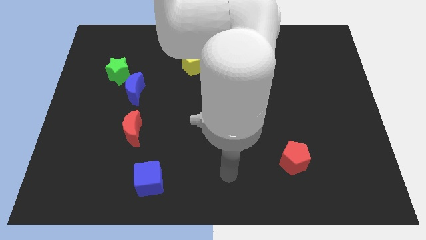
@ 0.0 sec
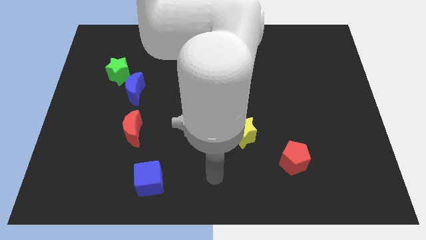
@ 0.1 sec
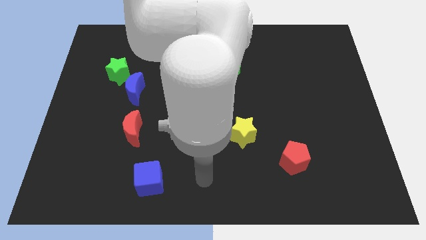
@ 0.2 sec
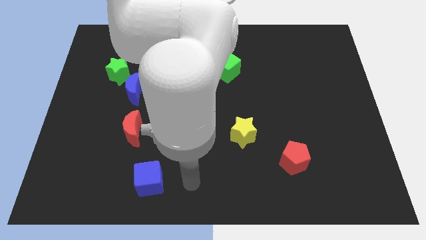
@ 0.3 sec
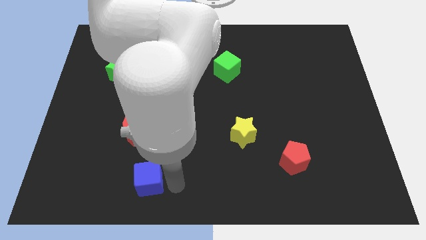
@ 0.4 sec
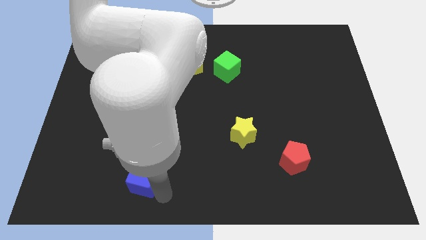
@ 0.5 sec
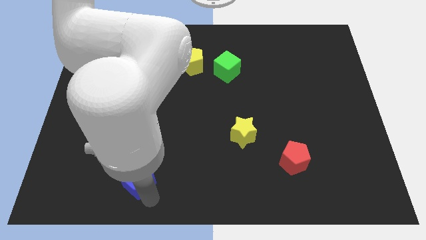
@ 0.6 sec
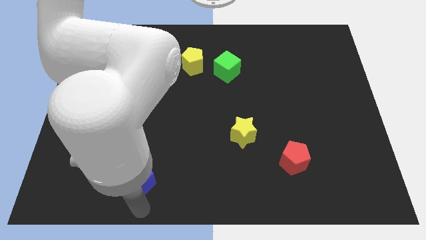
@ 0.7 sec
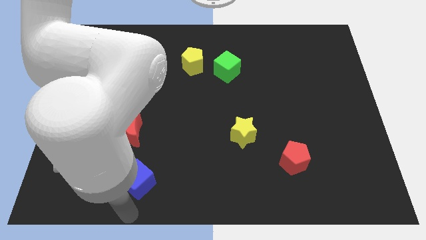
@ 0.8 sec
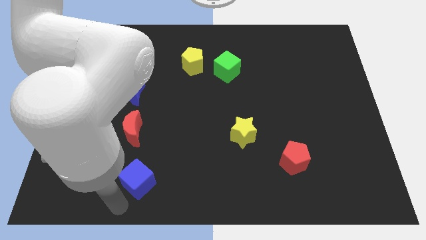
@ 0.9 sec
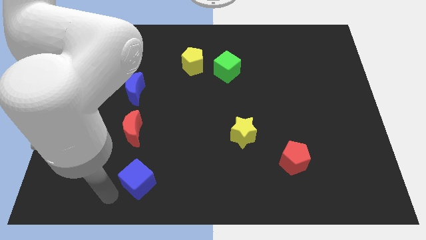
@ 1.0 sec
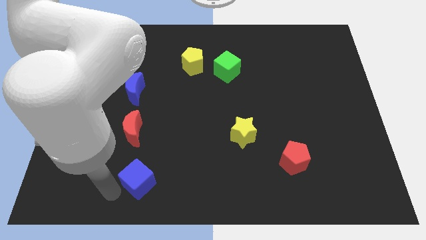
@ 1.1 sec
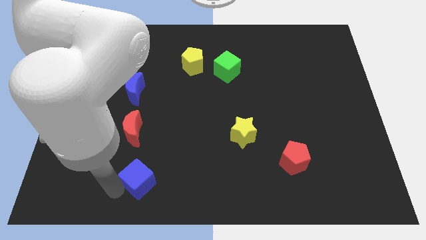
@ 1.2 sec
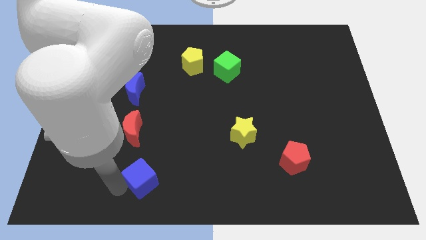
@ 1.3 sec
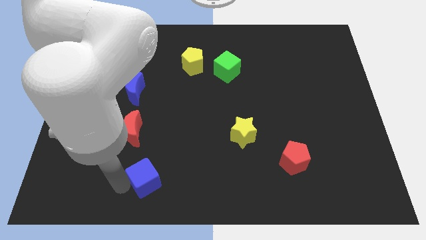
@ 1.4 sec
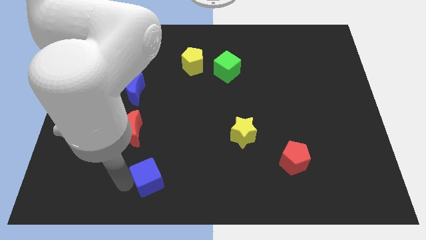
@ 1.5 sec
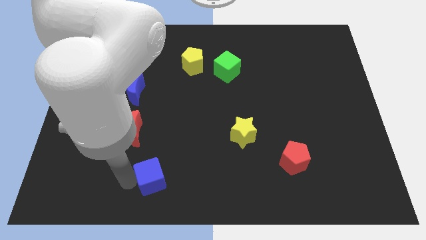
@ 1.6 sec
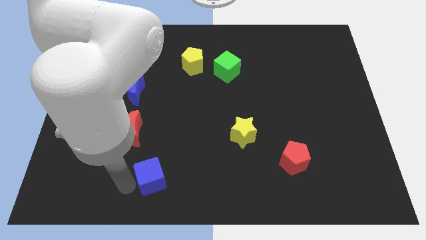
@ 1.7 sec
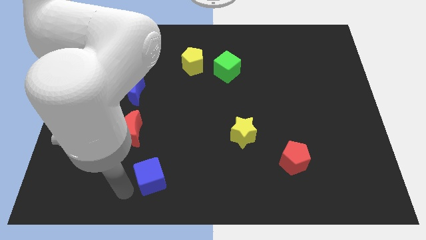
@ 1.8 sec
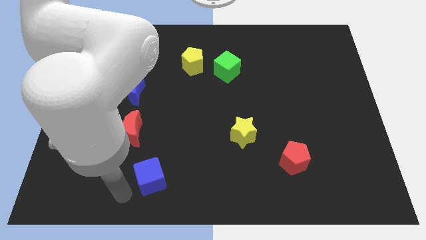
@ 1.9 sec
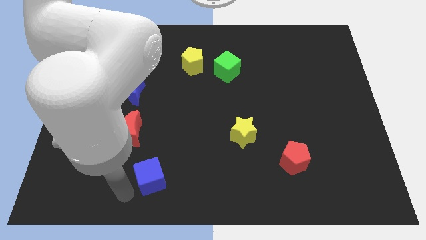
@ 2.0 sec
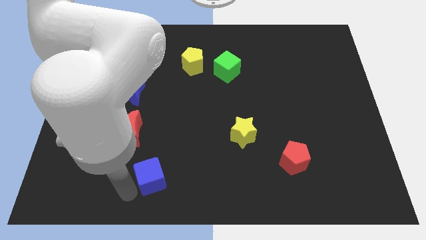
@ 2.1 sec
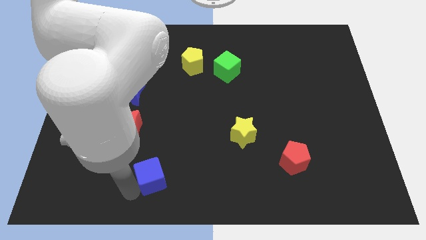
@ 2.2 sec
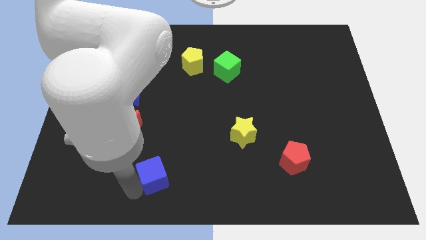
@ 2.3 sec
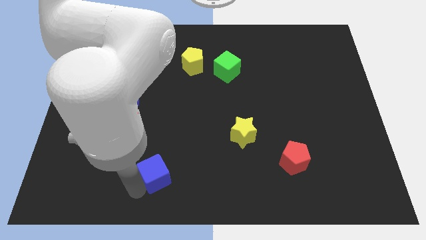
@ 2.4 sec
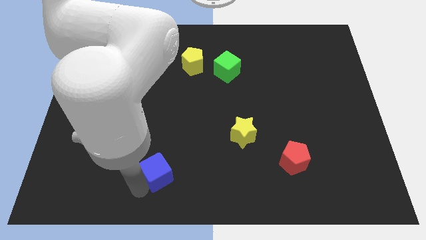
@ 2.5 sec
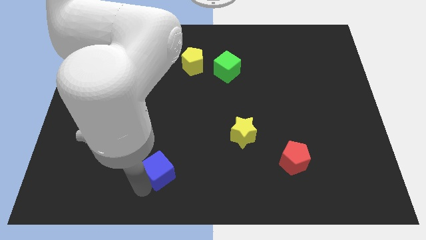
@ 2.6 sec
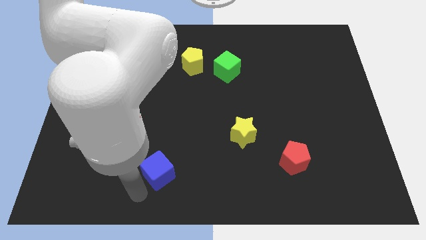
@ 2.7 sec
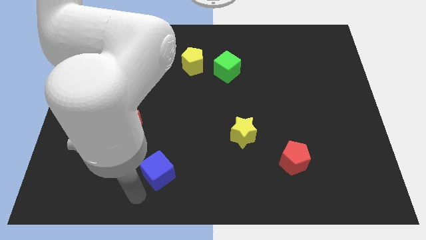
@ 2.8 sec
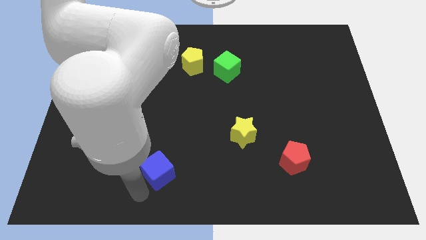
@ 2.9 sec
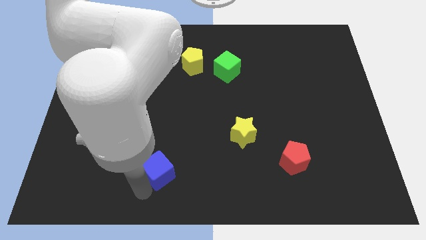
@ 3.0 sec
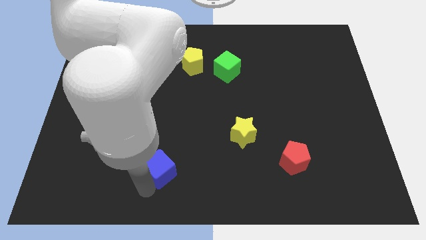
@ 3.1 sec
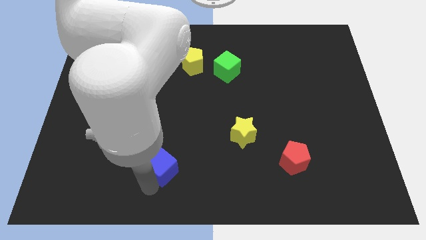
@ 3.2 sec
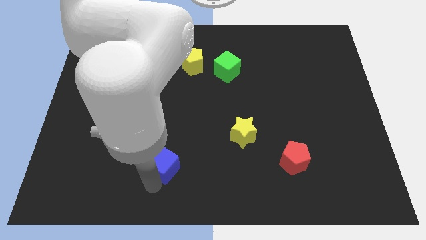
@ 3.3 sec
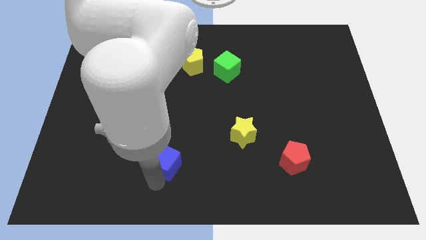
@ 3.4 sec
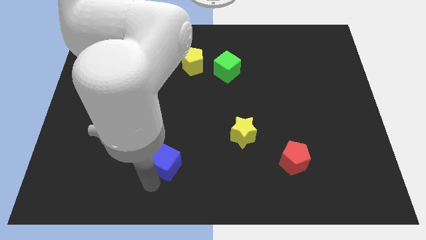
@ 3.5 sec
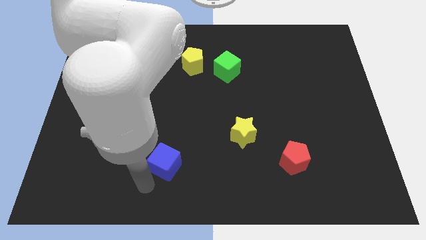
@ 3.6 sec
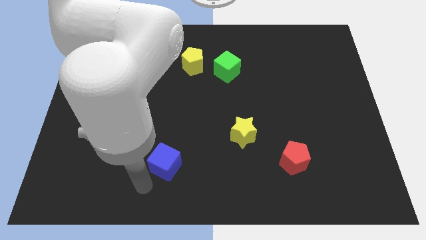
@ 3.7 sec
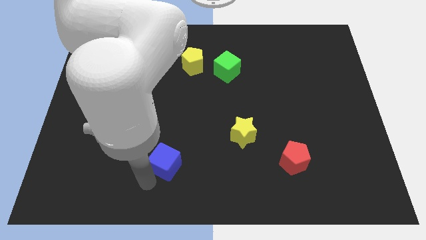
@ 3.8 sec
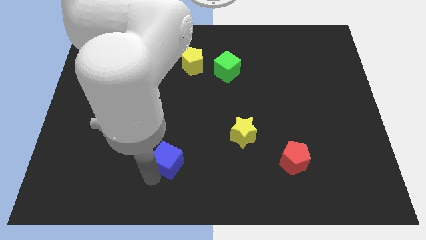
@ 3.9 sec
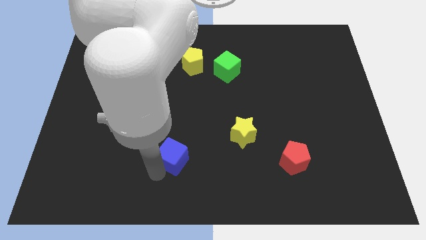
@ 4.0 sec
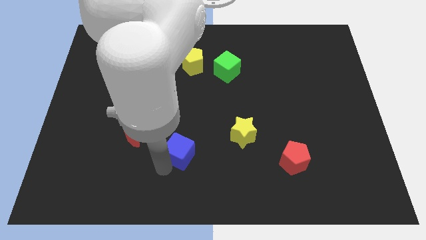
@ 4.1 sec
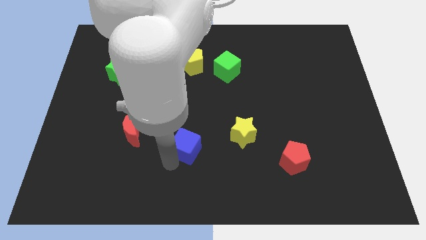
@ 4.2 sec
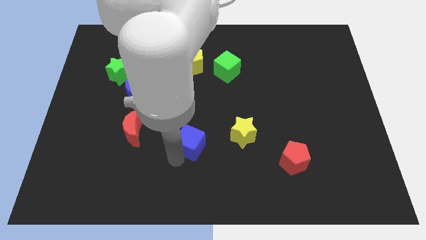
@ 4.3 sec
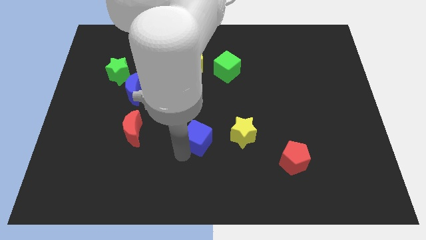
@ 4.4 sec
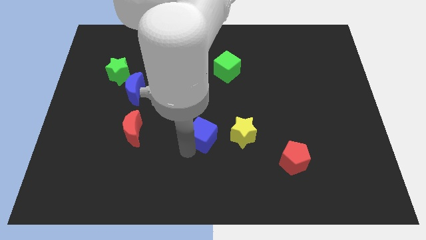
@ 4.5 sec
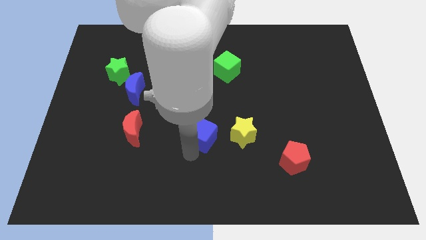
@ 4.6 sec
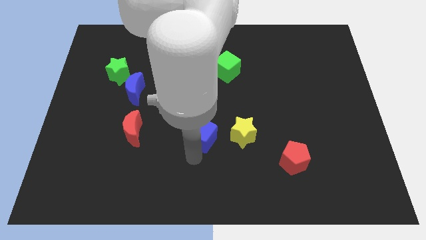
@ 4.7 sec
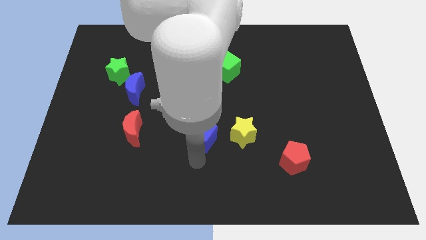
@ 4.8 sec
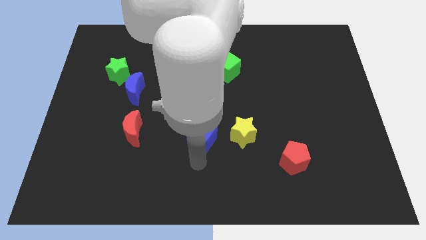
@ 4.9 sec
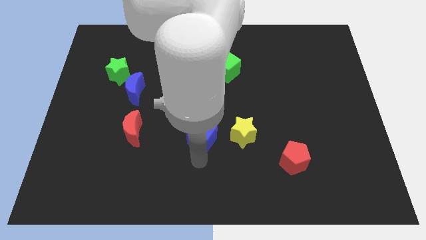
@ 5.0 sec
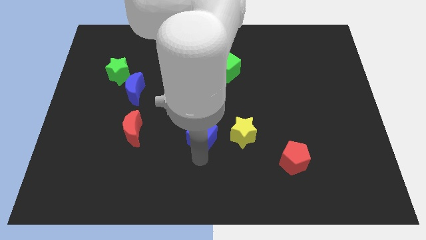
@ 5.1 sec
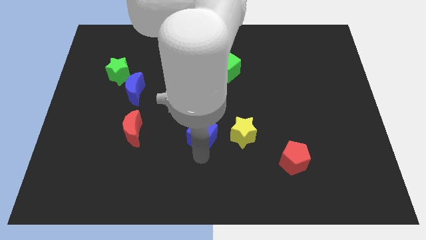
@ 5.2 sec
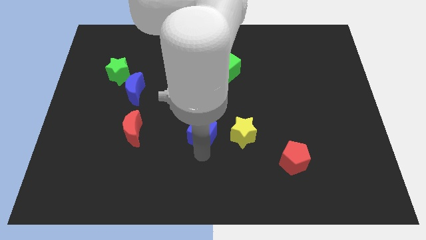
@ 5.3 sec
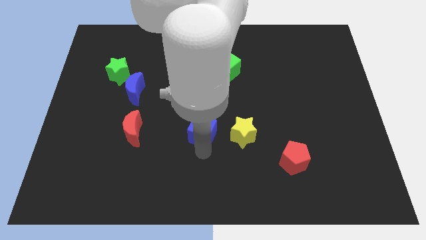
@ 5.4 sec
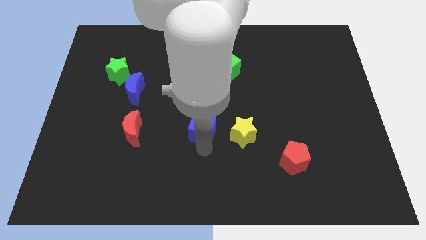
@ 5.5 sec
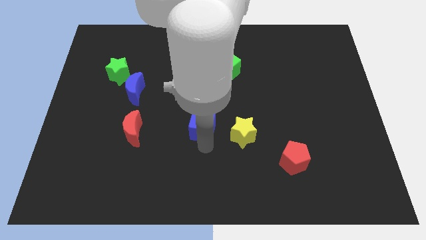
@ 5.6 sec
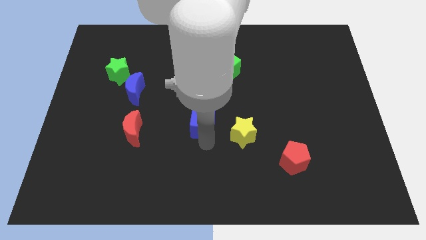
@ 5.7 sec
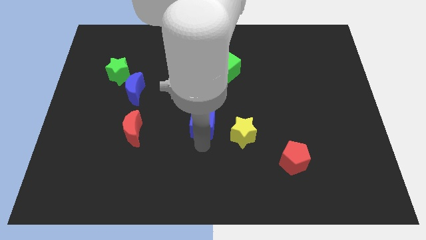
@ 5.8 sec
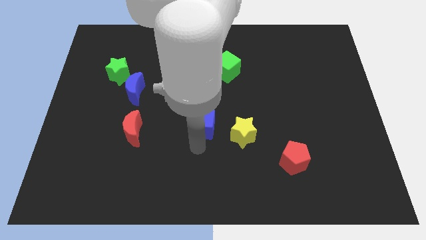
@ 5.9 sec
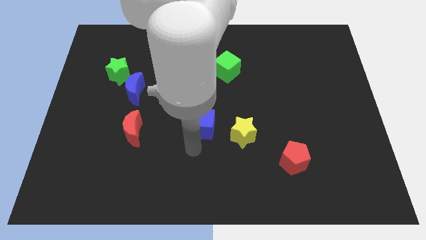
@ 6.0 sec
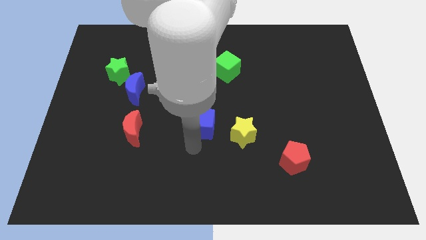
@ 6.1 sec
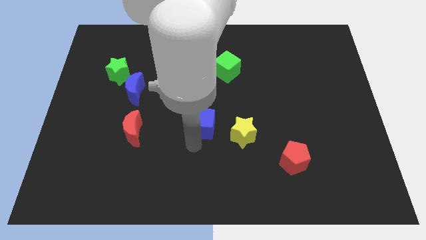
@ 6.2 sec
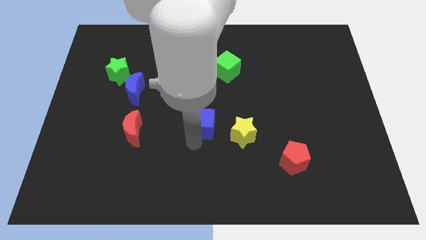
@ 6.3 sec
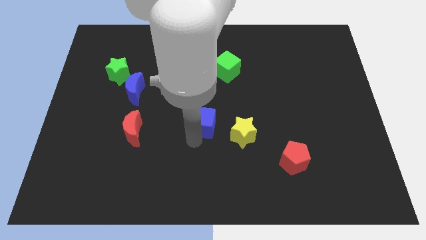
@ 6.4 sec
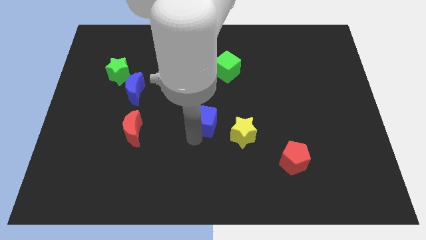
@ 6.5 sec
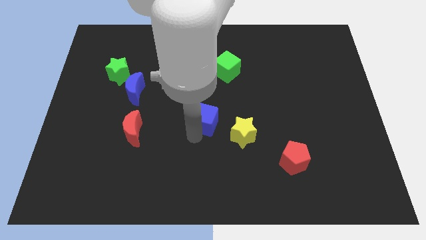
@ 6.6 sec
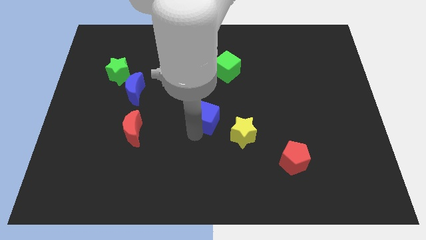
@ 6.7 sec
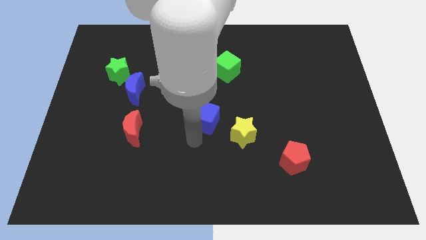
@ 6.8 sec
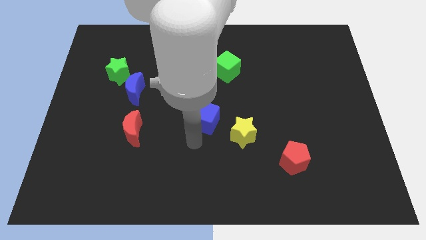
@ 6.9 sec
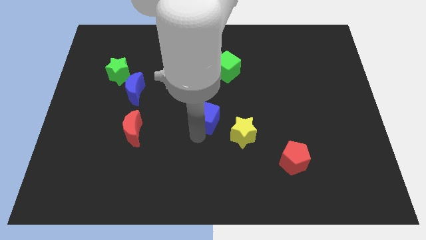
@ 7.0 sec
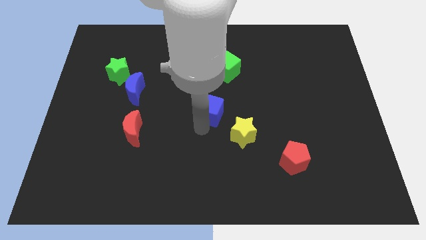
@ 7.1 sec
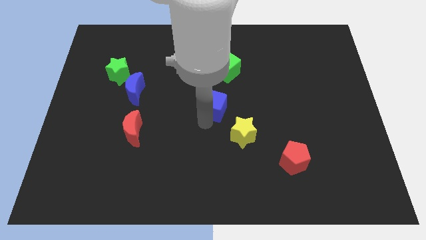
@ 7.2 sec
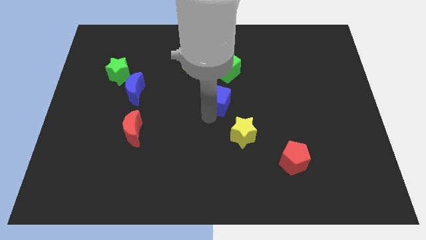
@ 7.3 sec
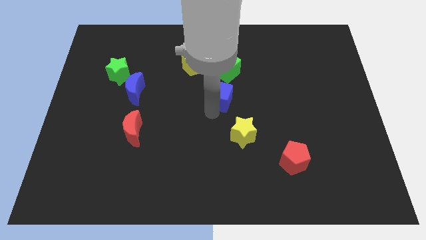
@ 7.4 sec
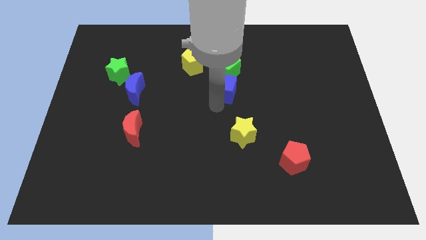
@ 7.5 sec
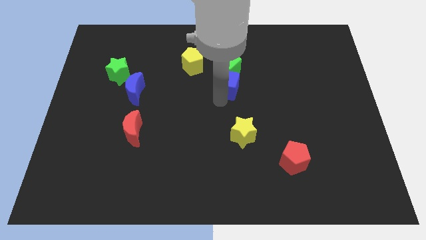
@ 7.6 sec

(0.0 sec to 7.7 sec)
slide the blue cube to the green cube
